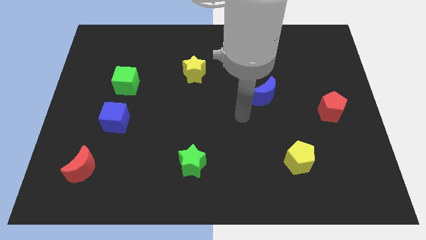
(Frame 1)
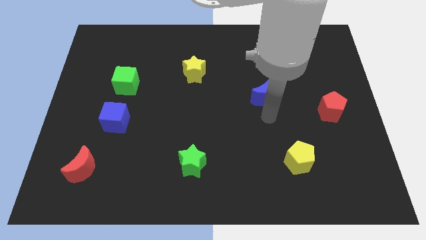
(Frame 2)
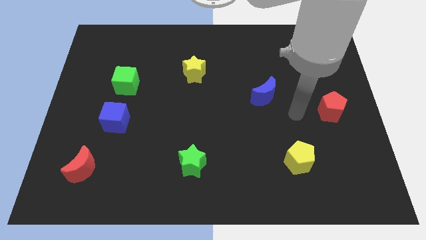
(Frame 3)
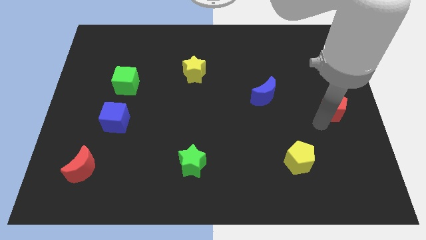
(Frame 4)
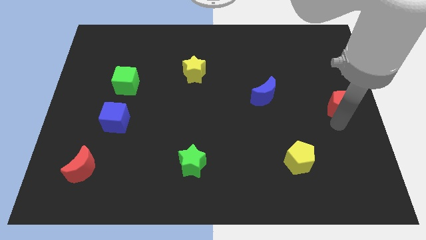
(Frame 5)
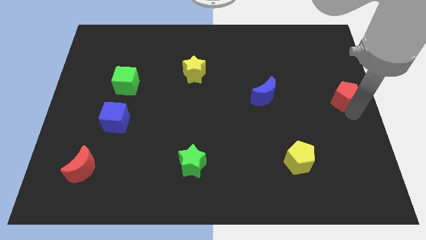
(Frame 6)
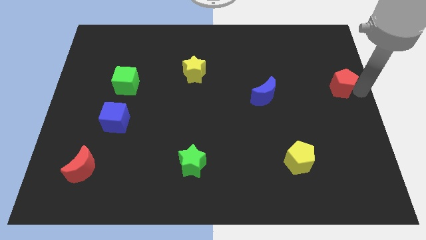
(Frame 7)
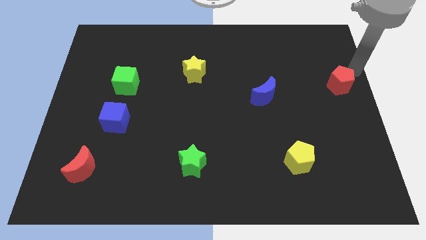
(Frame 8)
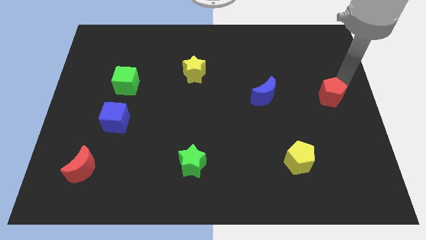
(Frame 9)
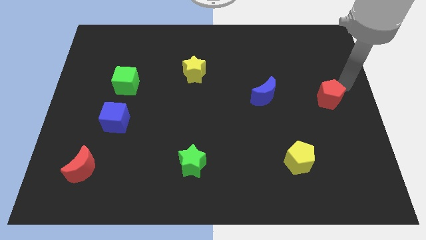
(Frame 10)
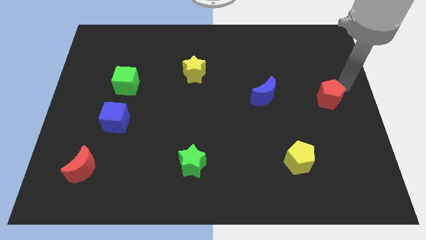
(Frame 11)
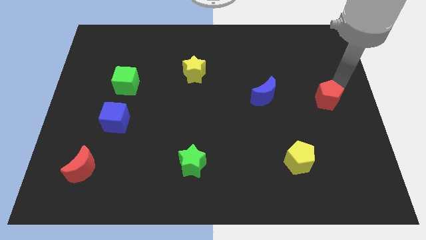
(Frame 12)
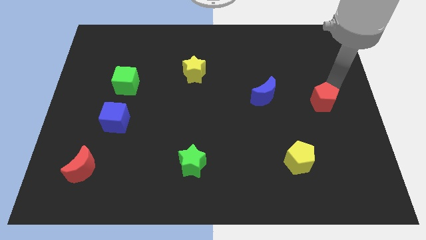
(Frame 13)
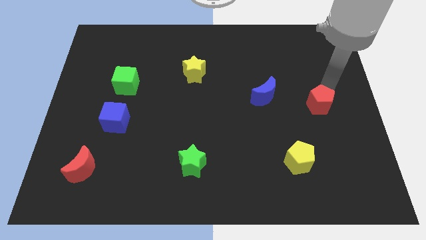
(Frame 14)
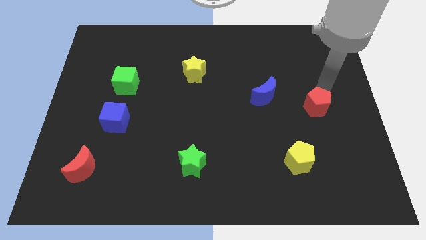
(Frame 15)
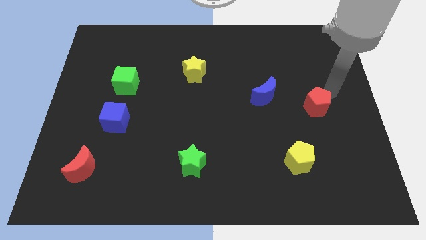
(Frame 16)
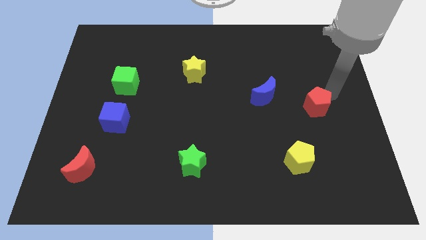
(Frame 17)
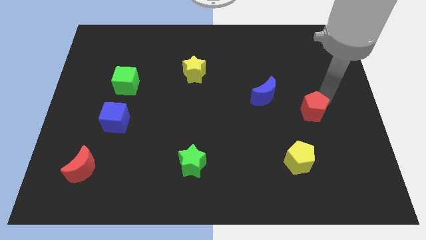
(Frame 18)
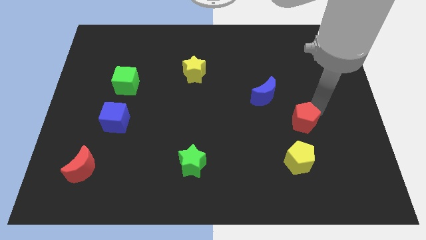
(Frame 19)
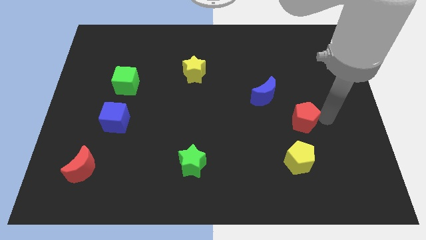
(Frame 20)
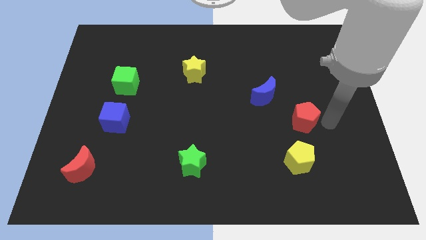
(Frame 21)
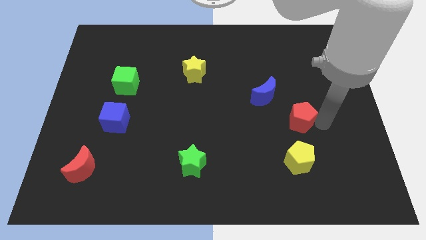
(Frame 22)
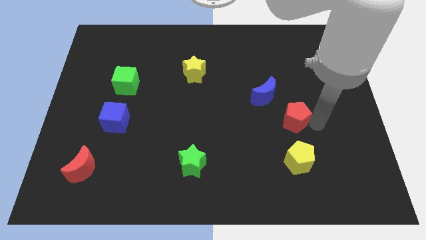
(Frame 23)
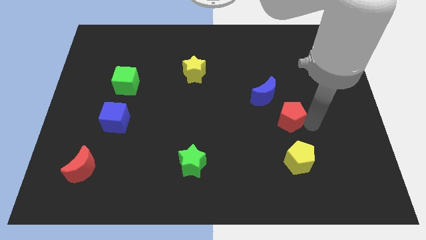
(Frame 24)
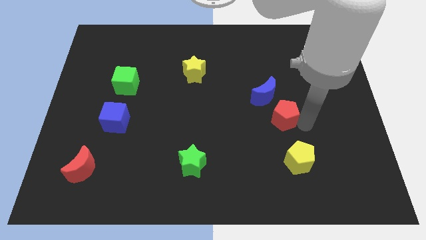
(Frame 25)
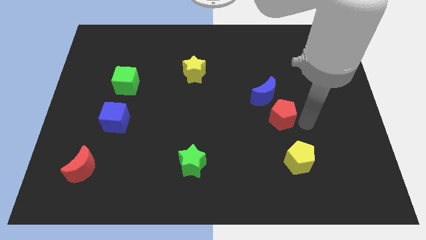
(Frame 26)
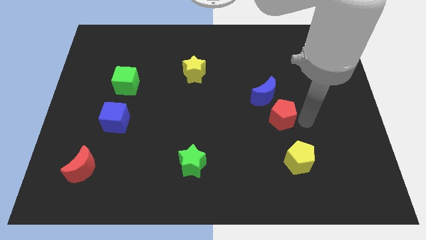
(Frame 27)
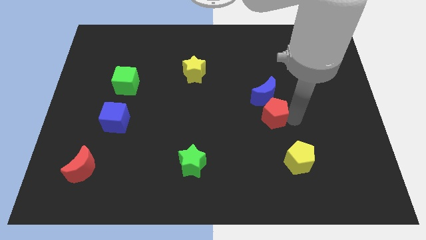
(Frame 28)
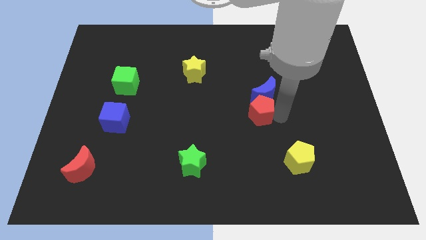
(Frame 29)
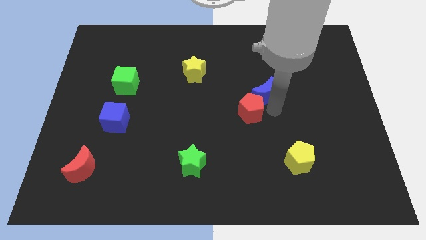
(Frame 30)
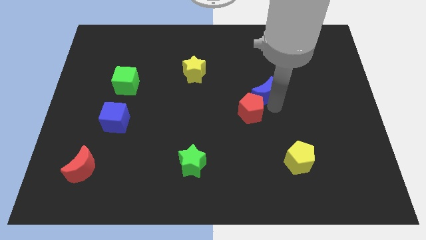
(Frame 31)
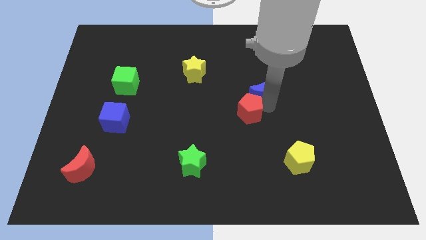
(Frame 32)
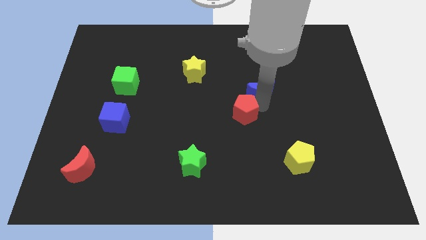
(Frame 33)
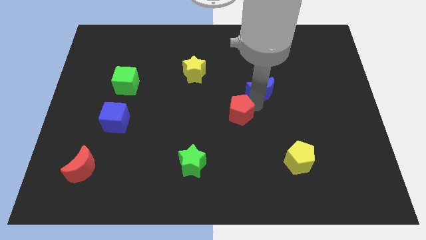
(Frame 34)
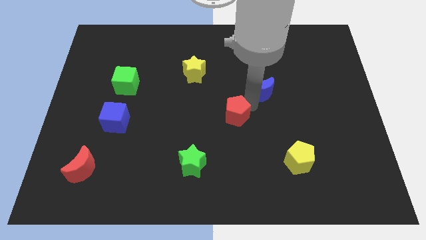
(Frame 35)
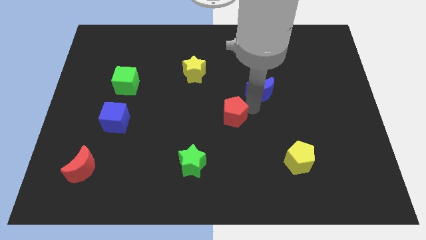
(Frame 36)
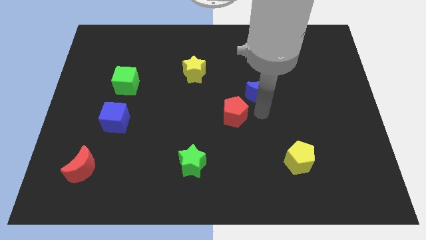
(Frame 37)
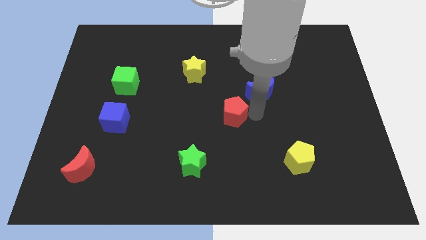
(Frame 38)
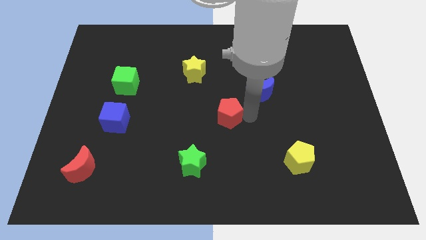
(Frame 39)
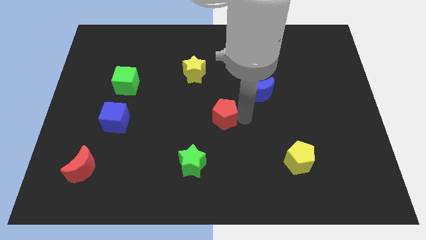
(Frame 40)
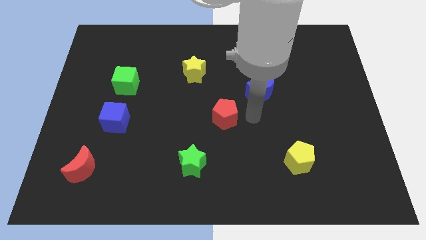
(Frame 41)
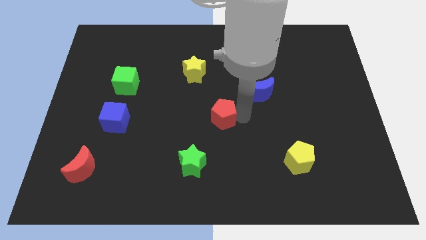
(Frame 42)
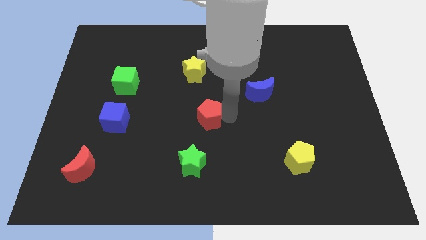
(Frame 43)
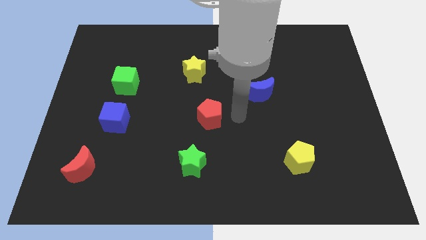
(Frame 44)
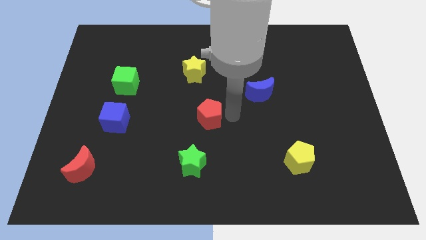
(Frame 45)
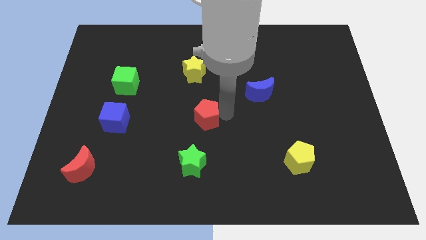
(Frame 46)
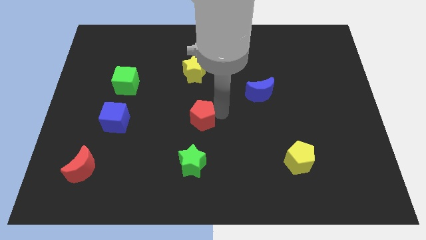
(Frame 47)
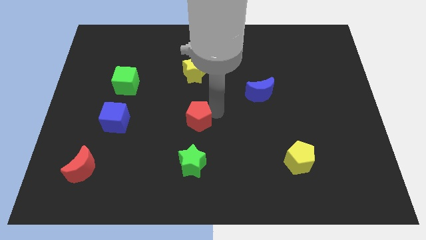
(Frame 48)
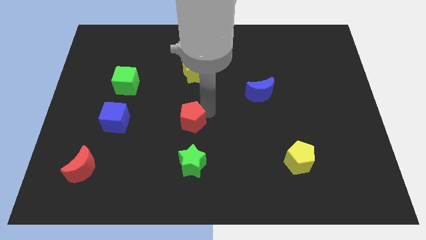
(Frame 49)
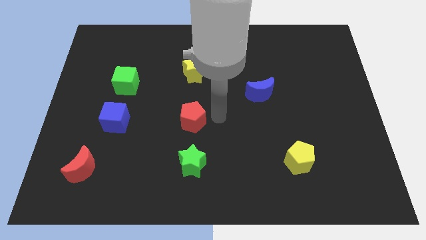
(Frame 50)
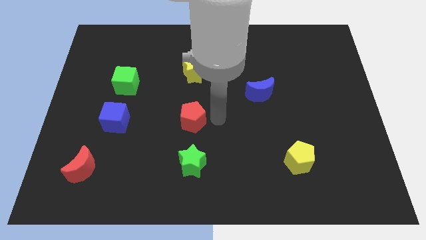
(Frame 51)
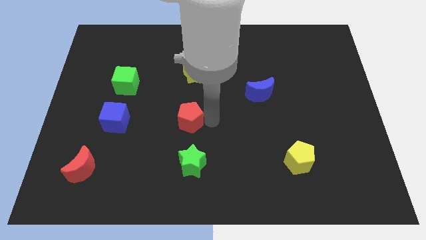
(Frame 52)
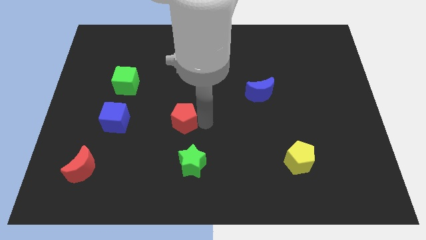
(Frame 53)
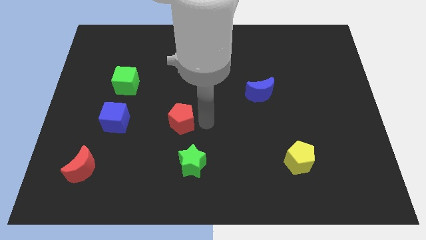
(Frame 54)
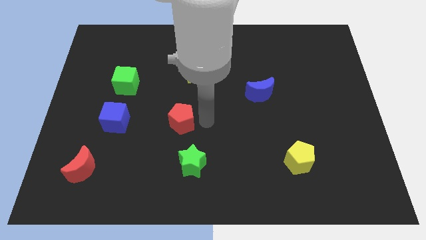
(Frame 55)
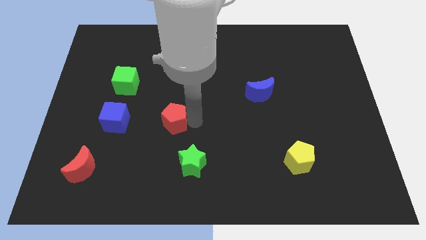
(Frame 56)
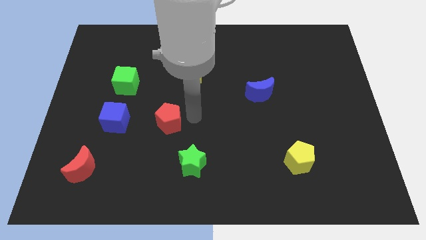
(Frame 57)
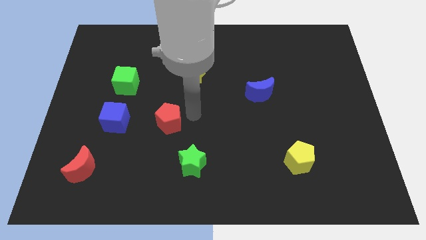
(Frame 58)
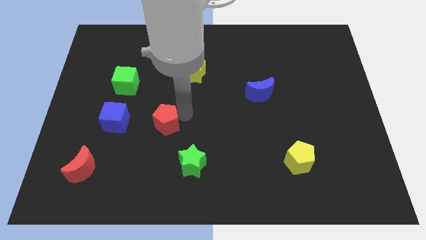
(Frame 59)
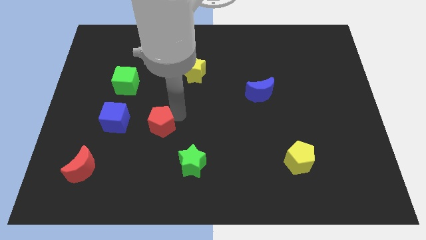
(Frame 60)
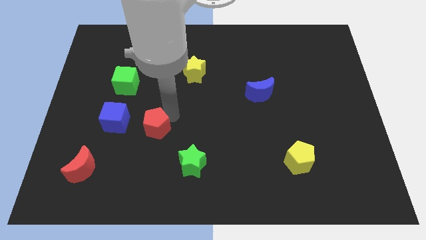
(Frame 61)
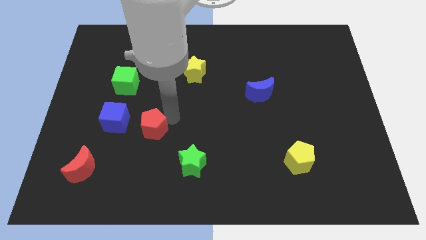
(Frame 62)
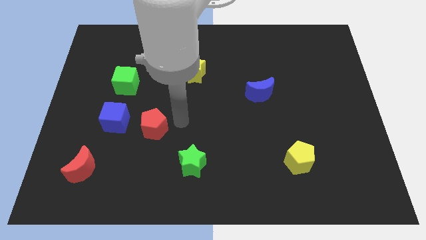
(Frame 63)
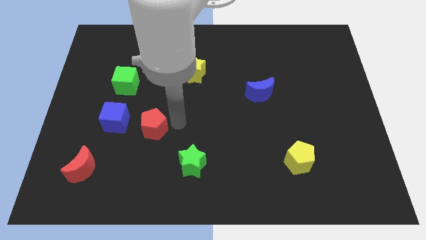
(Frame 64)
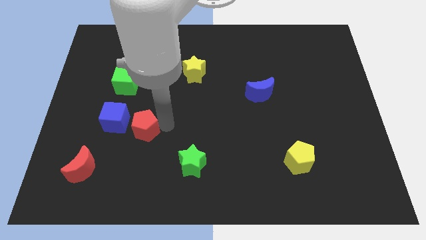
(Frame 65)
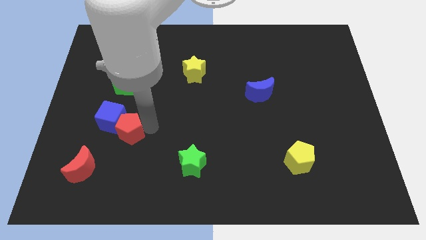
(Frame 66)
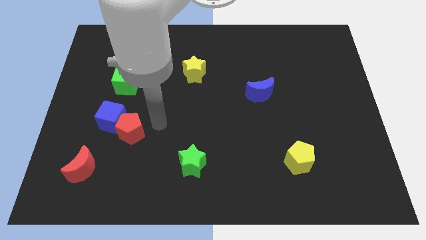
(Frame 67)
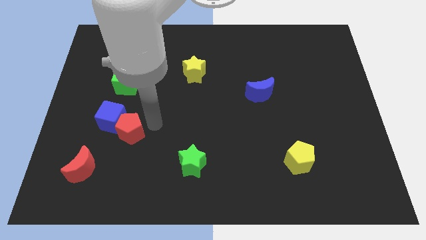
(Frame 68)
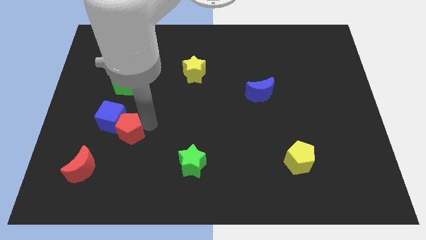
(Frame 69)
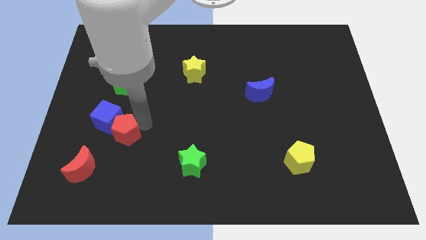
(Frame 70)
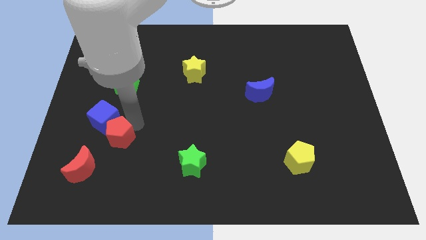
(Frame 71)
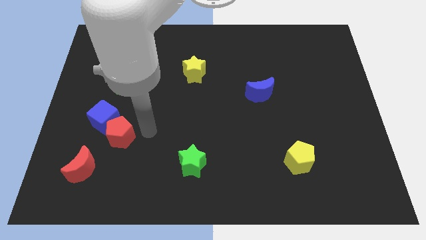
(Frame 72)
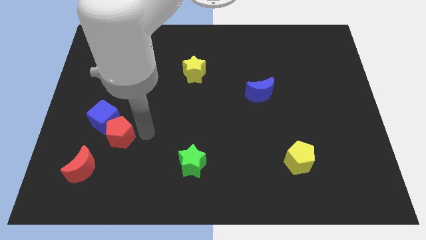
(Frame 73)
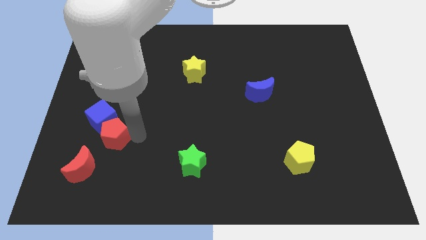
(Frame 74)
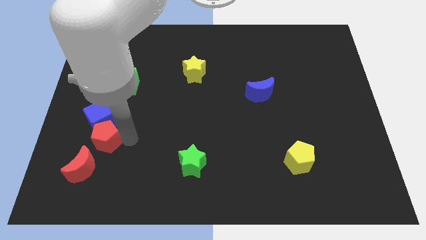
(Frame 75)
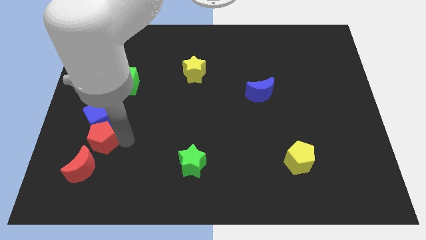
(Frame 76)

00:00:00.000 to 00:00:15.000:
move the red pentagon to the bottom left side of the blue cube

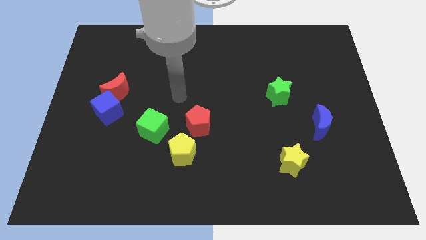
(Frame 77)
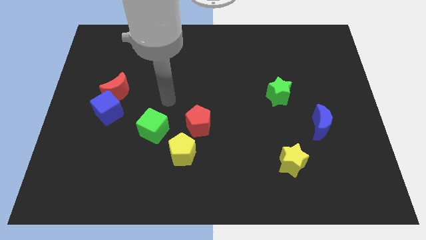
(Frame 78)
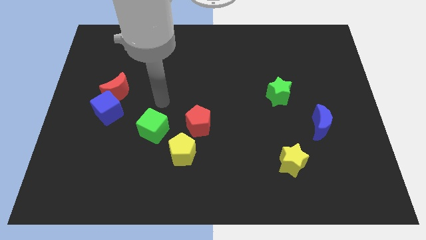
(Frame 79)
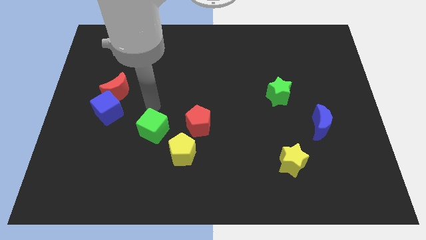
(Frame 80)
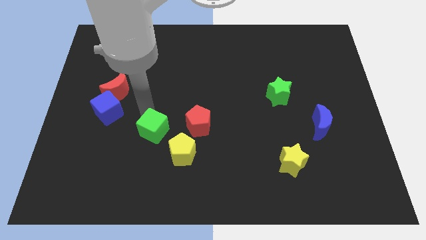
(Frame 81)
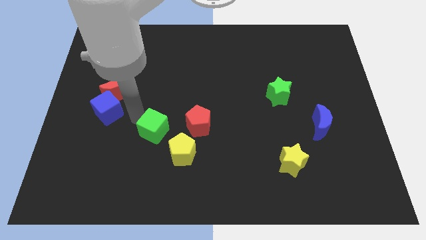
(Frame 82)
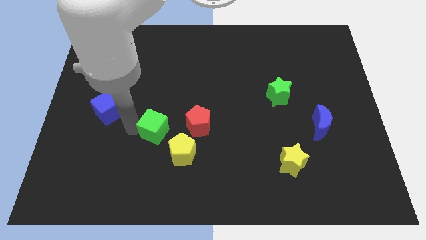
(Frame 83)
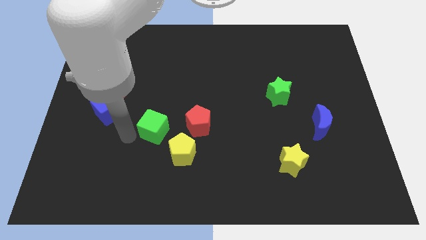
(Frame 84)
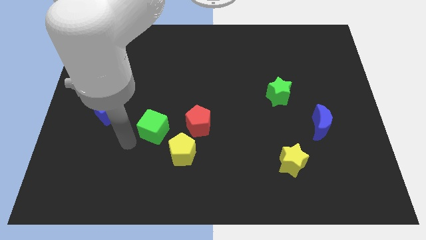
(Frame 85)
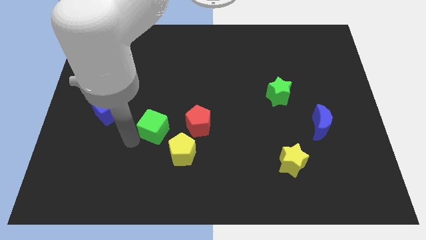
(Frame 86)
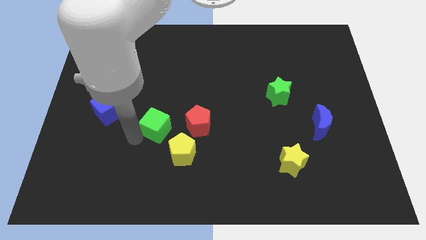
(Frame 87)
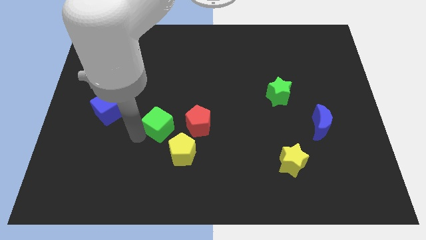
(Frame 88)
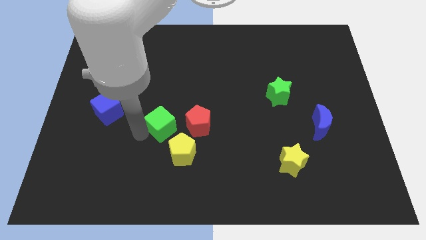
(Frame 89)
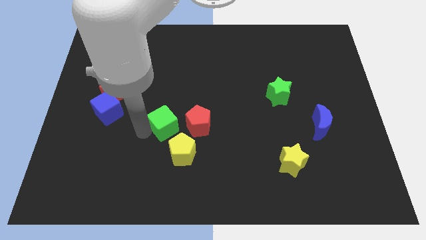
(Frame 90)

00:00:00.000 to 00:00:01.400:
slide the green cube to the top of the yellow pentagon
